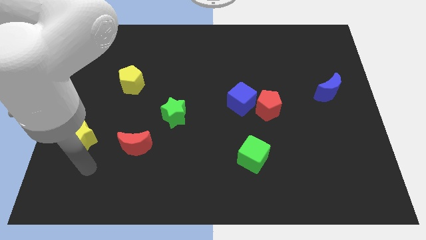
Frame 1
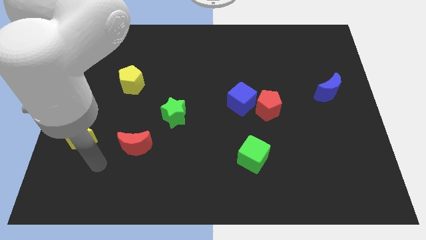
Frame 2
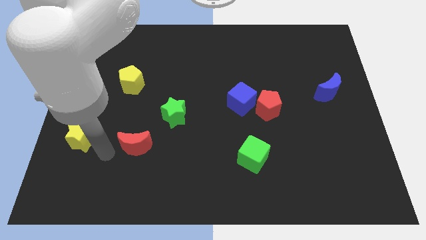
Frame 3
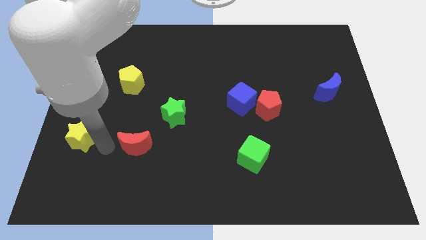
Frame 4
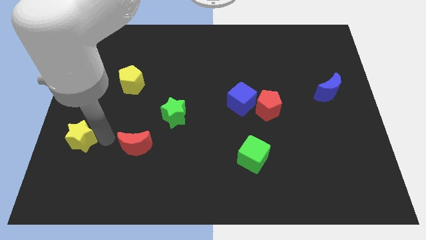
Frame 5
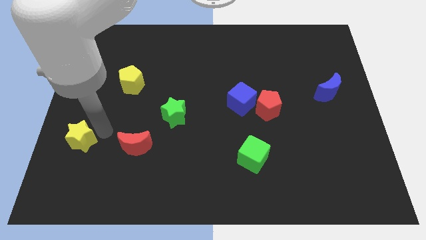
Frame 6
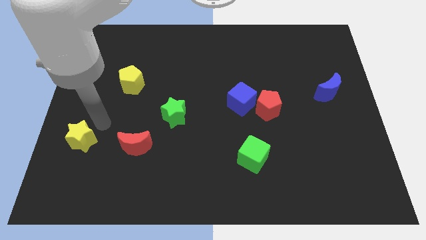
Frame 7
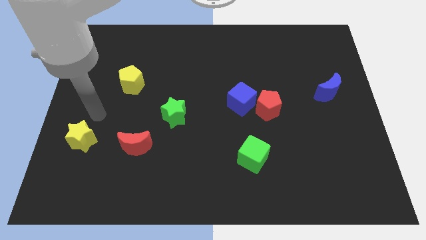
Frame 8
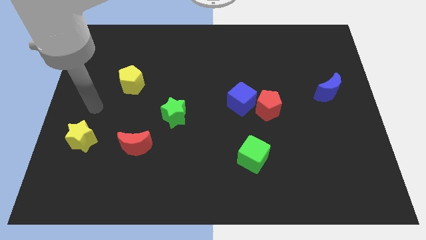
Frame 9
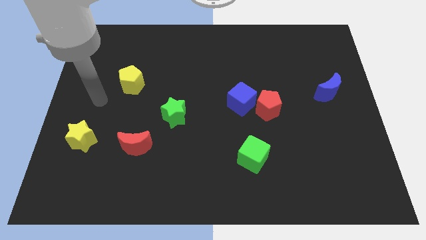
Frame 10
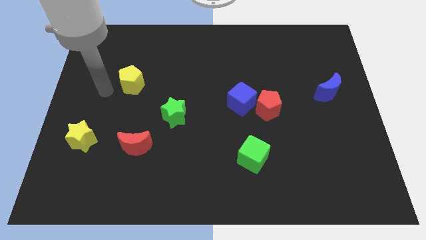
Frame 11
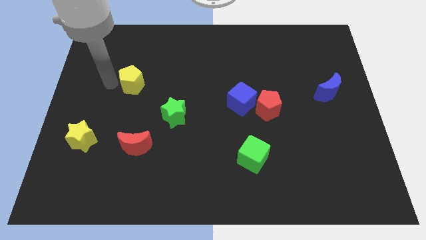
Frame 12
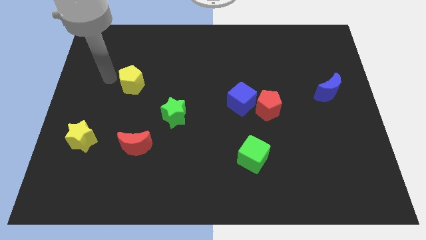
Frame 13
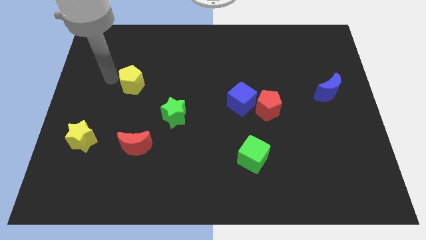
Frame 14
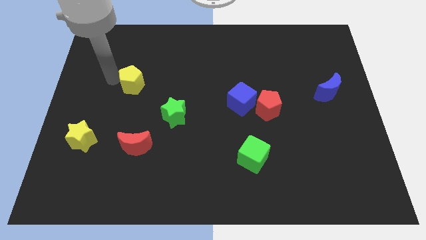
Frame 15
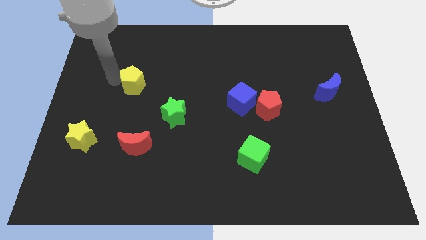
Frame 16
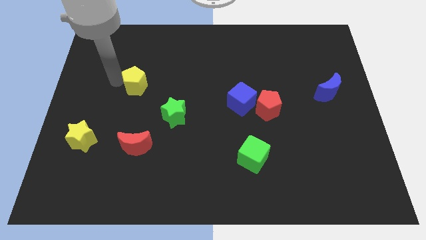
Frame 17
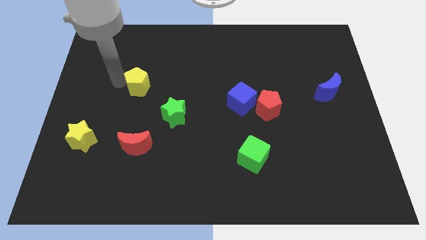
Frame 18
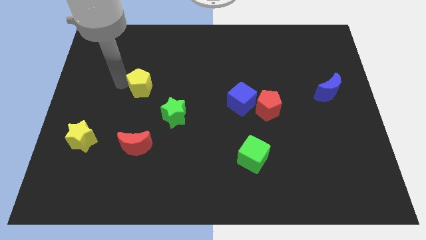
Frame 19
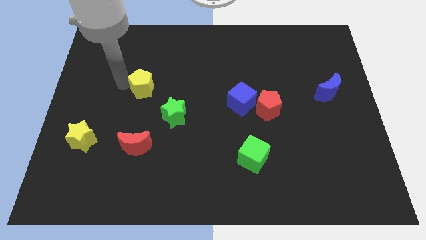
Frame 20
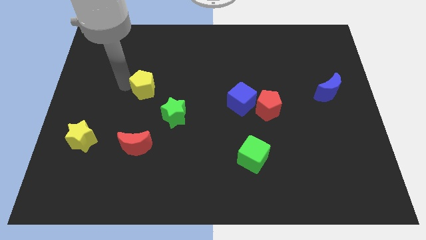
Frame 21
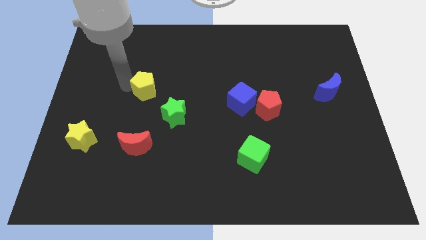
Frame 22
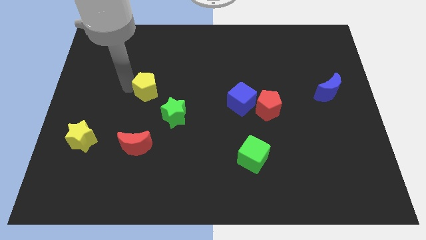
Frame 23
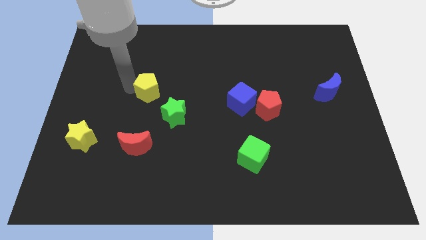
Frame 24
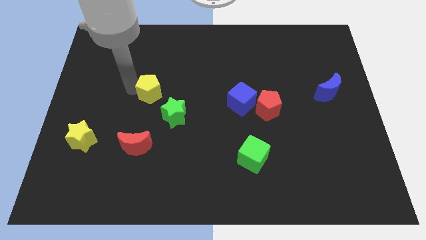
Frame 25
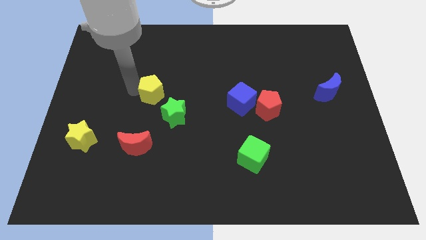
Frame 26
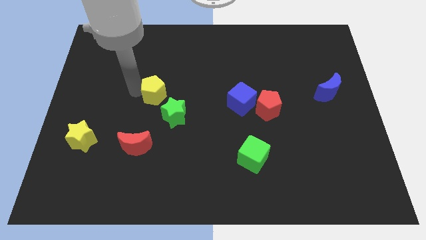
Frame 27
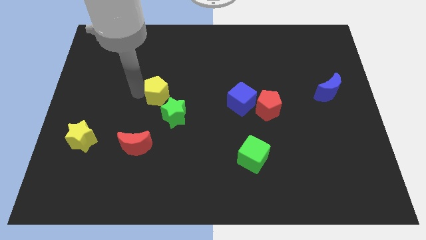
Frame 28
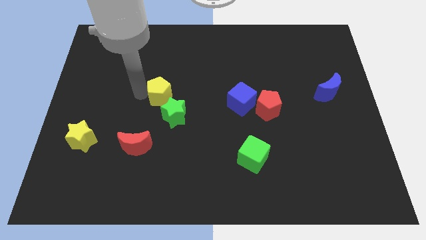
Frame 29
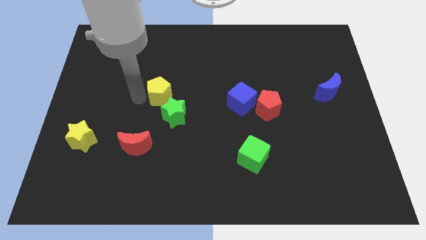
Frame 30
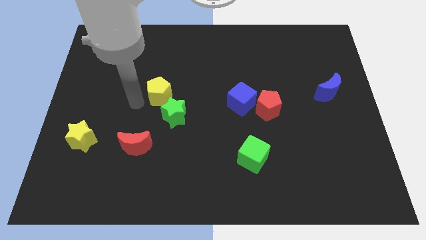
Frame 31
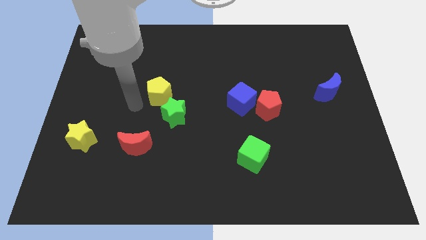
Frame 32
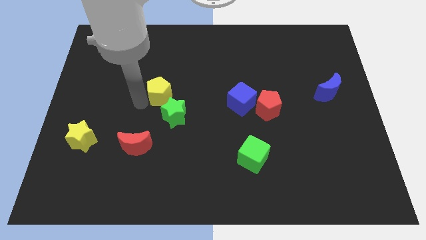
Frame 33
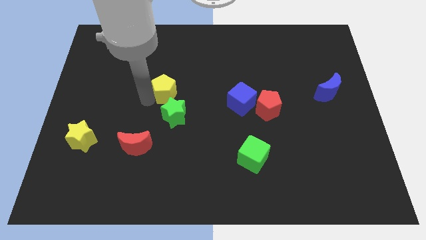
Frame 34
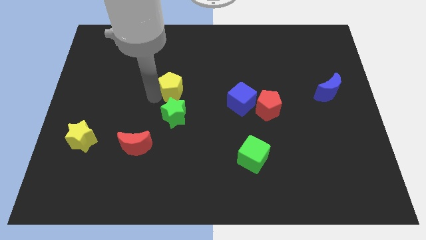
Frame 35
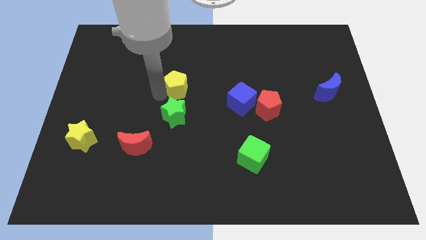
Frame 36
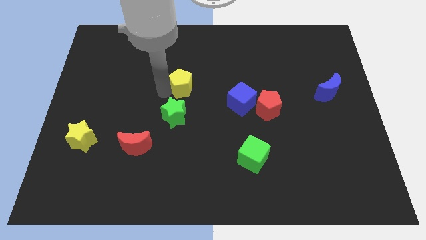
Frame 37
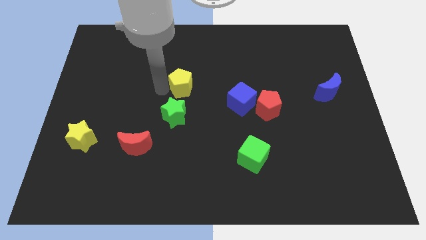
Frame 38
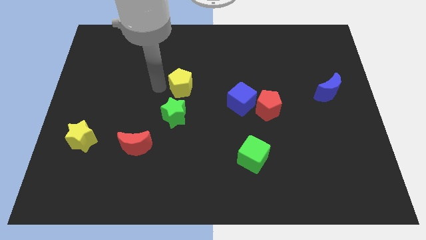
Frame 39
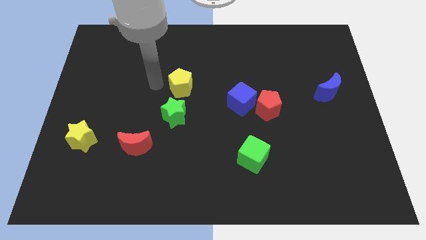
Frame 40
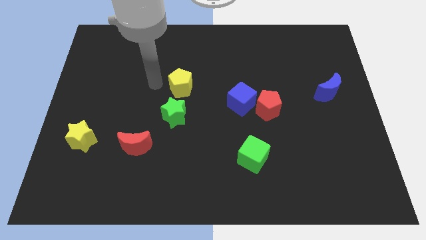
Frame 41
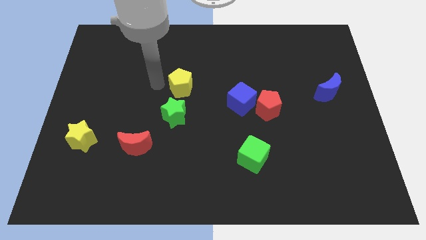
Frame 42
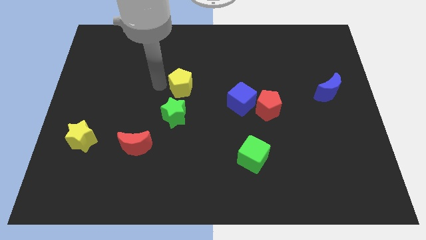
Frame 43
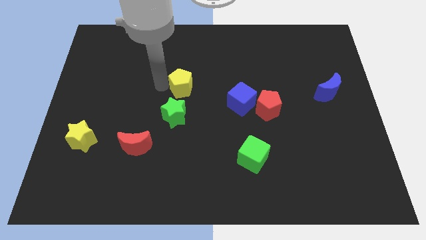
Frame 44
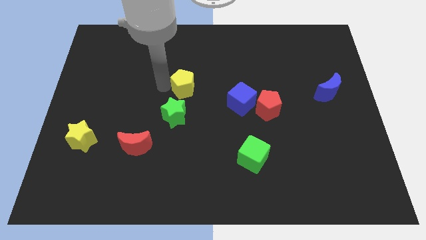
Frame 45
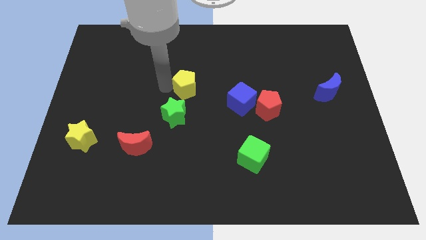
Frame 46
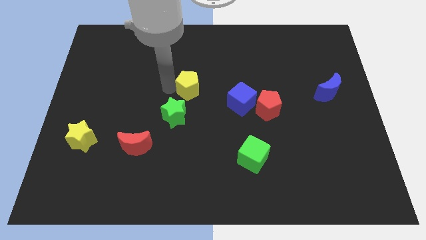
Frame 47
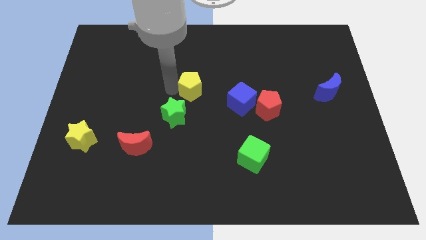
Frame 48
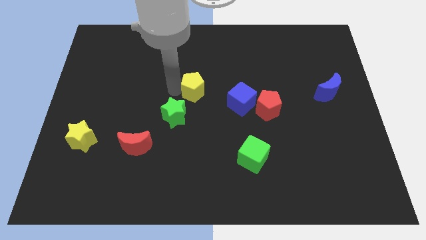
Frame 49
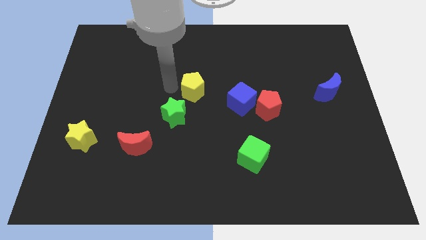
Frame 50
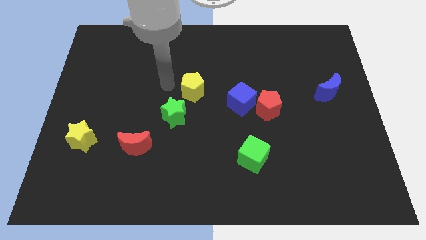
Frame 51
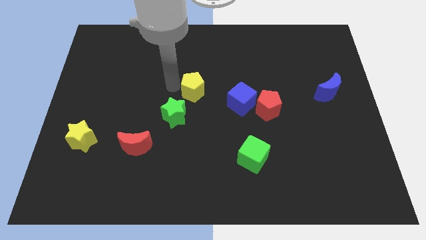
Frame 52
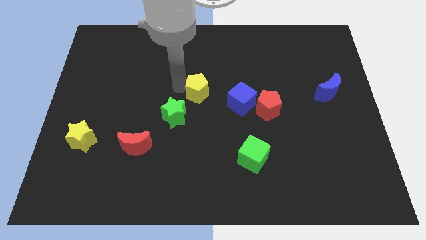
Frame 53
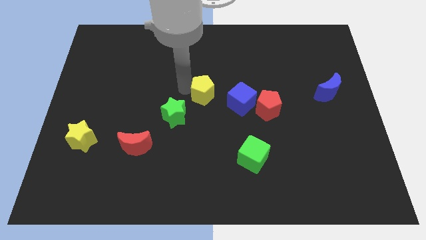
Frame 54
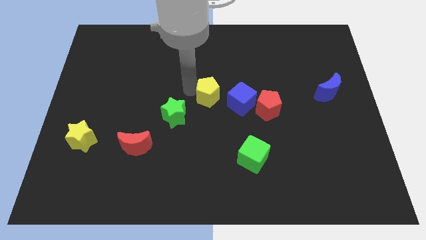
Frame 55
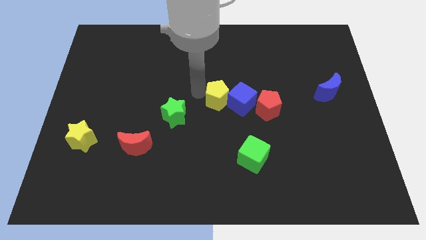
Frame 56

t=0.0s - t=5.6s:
put the yellow pentagon to the blue cube
